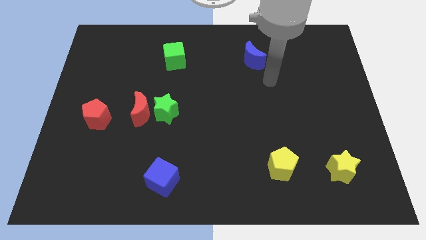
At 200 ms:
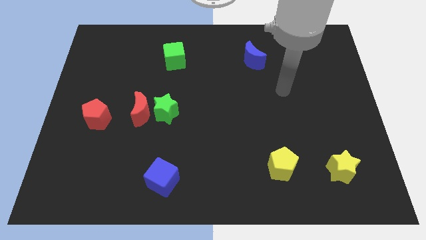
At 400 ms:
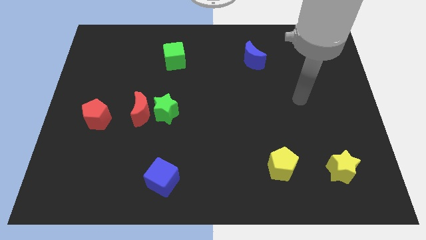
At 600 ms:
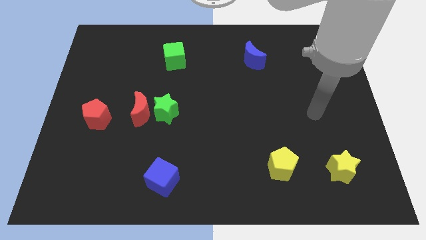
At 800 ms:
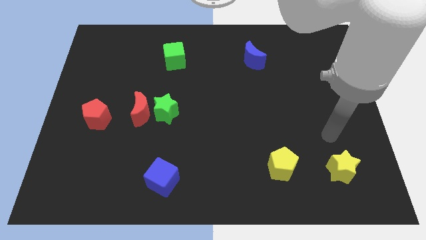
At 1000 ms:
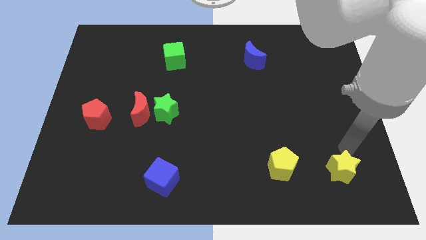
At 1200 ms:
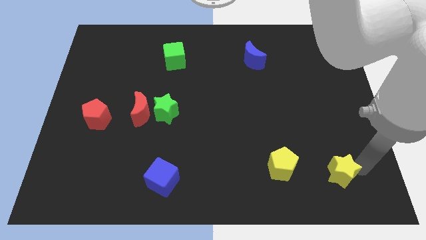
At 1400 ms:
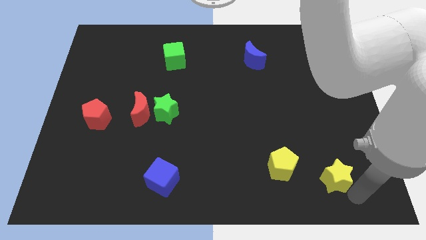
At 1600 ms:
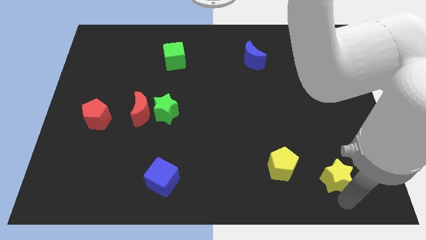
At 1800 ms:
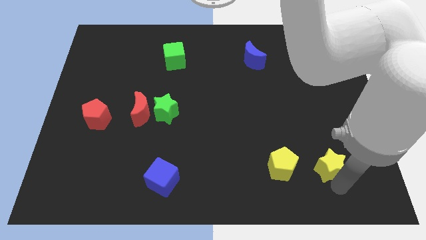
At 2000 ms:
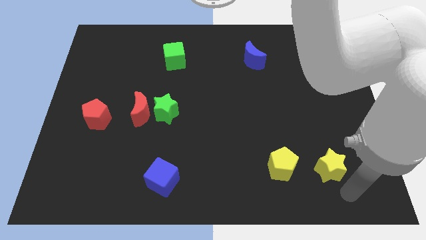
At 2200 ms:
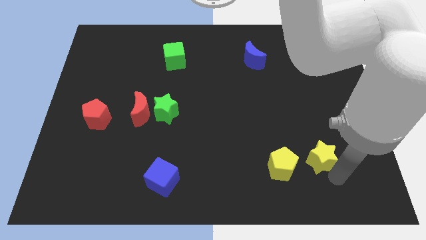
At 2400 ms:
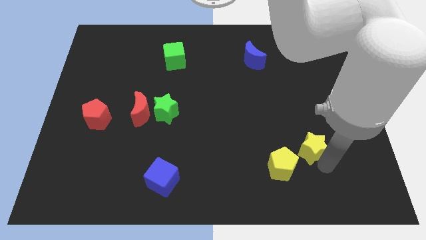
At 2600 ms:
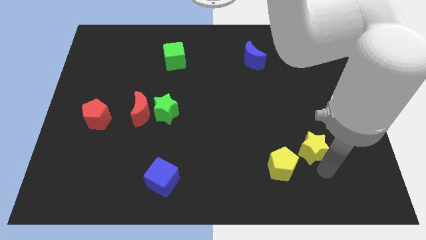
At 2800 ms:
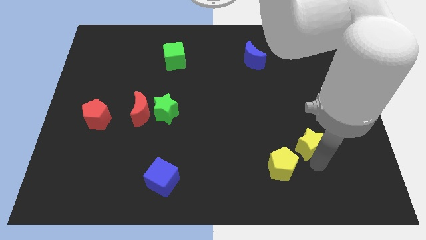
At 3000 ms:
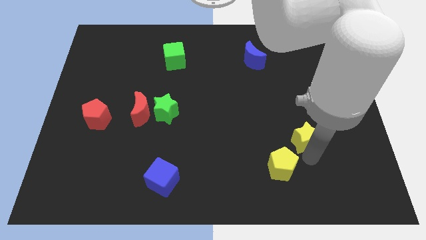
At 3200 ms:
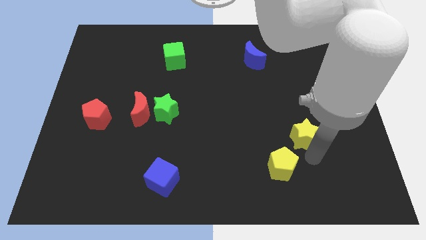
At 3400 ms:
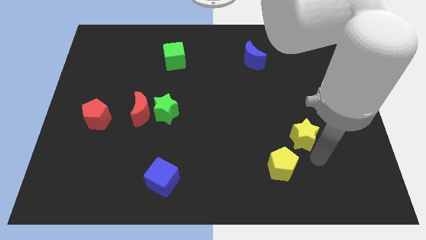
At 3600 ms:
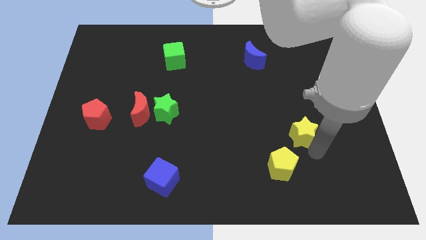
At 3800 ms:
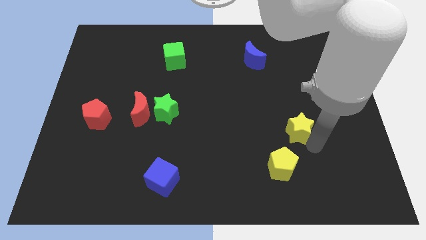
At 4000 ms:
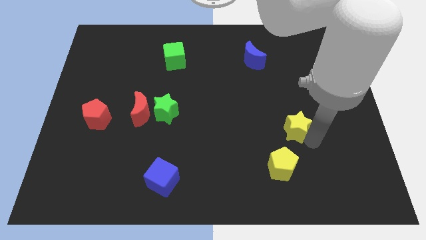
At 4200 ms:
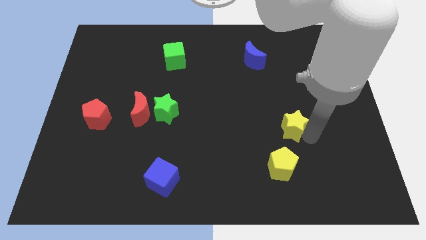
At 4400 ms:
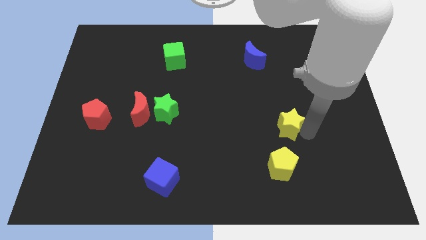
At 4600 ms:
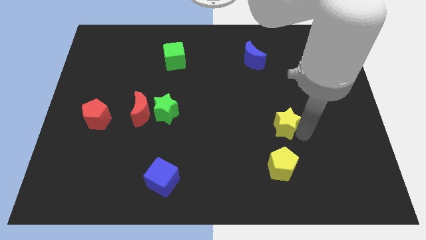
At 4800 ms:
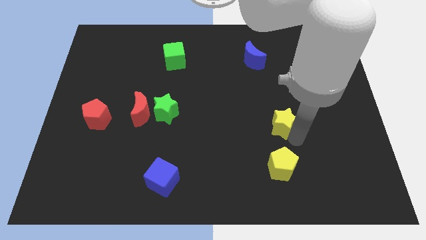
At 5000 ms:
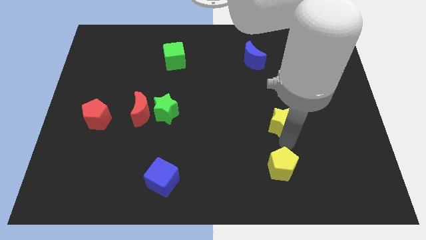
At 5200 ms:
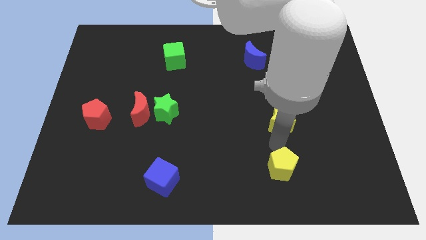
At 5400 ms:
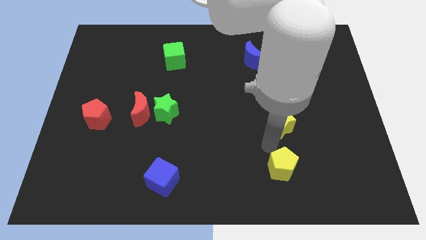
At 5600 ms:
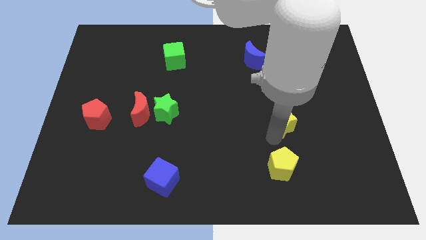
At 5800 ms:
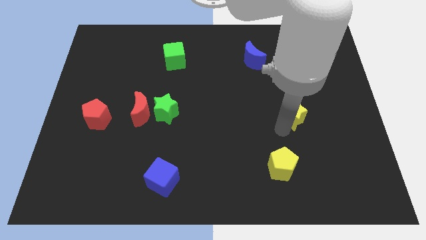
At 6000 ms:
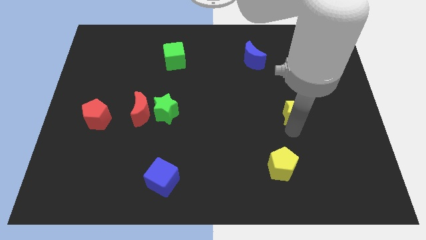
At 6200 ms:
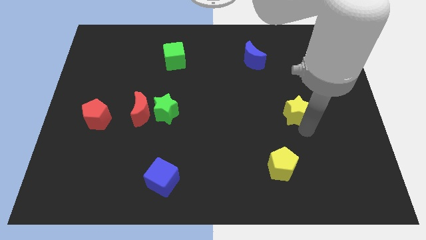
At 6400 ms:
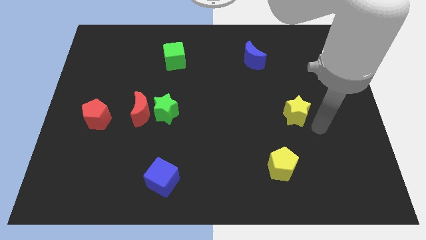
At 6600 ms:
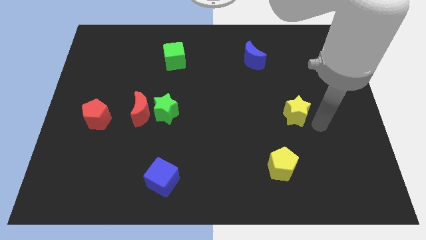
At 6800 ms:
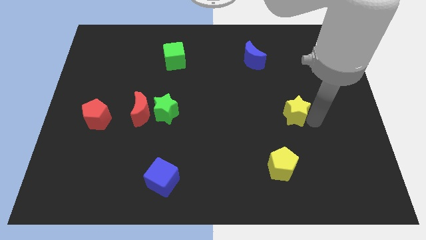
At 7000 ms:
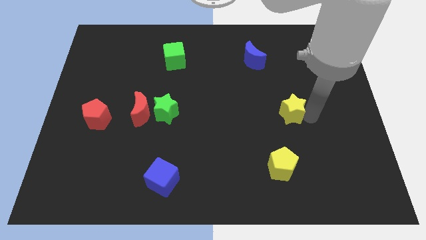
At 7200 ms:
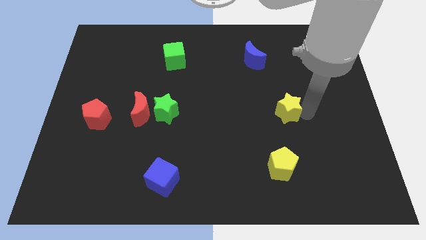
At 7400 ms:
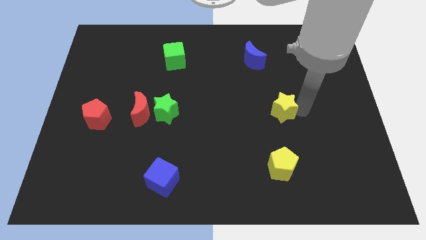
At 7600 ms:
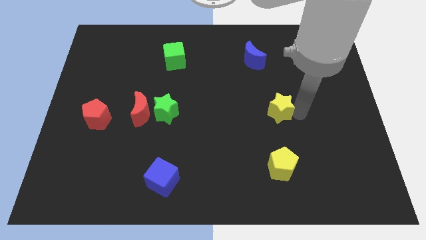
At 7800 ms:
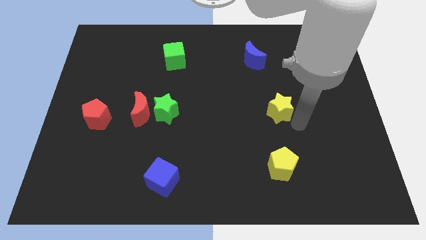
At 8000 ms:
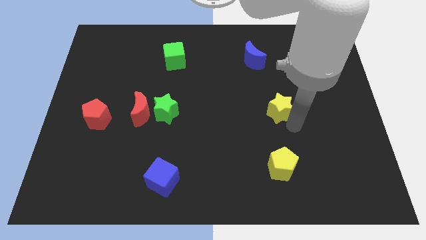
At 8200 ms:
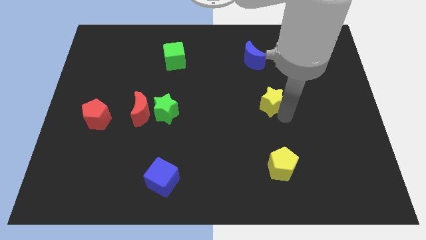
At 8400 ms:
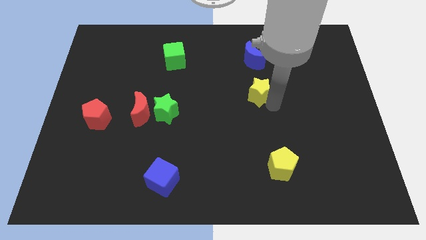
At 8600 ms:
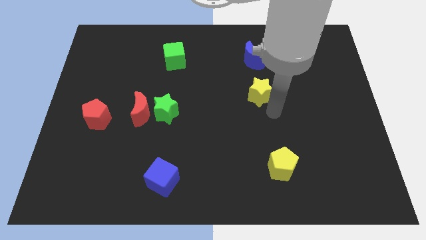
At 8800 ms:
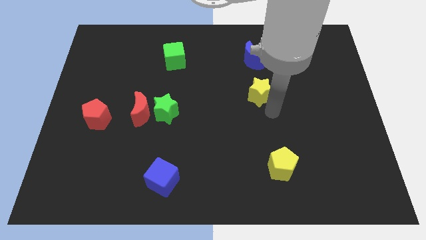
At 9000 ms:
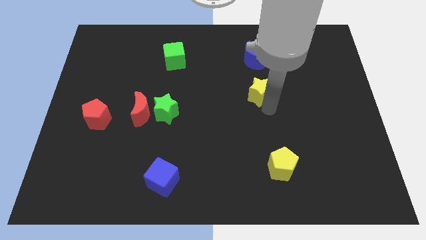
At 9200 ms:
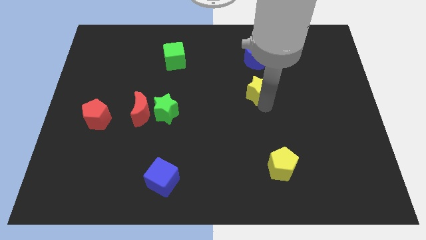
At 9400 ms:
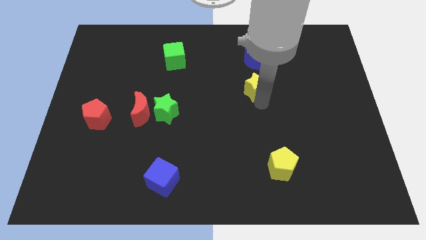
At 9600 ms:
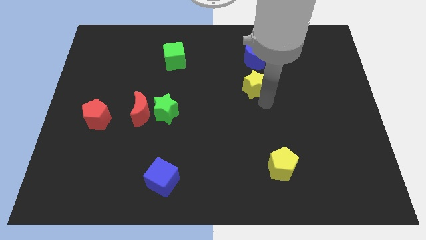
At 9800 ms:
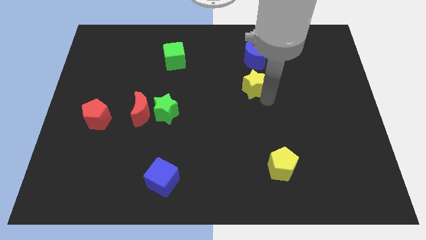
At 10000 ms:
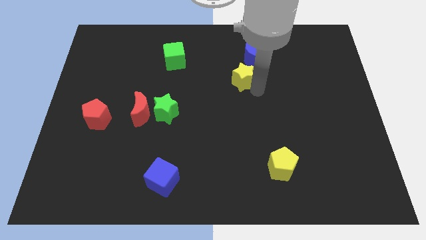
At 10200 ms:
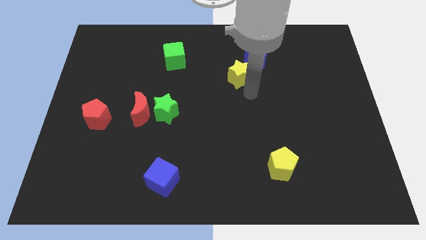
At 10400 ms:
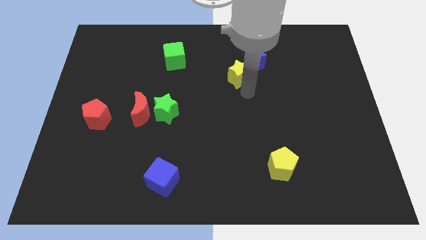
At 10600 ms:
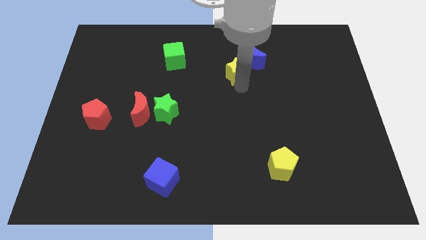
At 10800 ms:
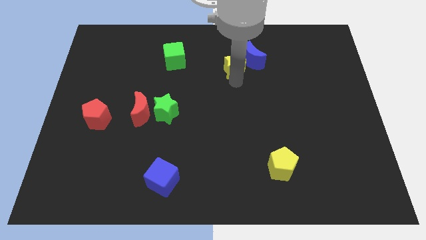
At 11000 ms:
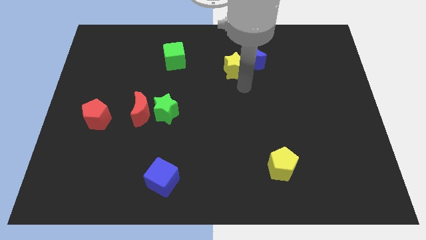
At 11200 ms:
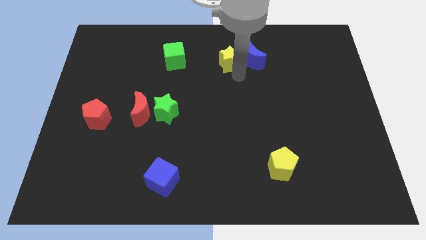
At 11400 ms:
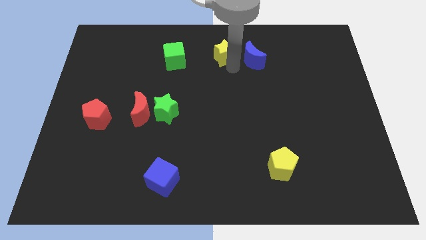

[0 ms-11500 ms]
put the yellow star to the towards your base

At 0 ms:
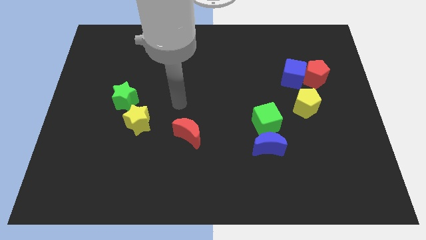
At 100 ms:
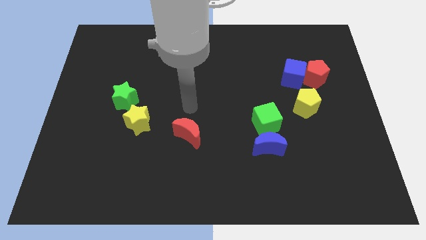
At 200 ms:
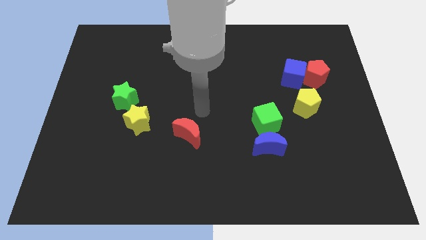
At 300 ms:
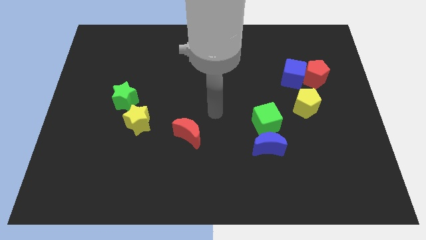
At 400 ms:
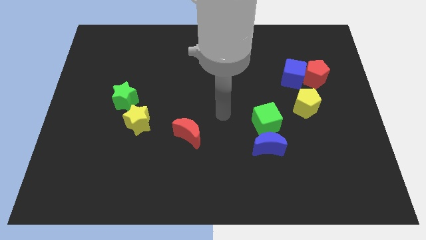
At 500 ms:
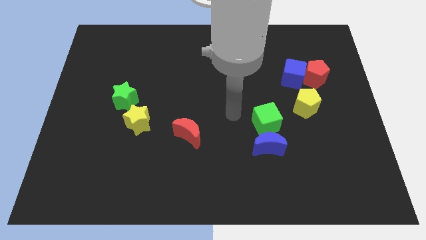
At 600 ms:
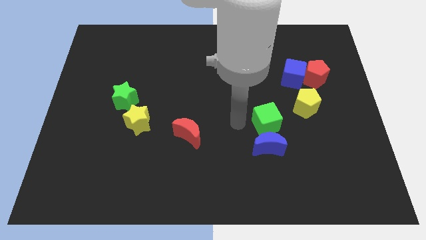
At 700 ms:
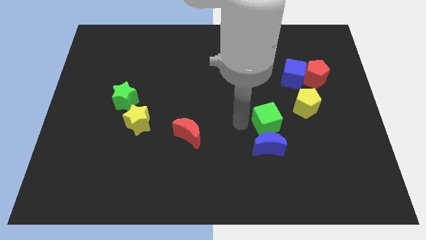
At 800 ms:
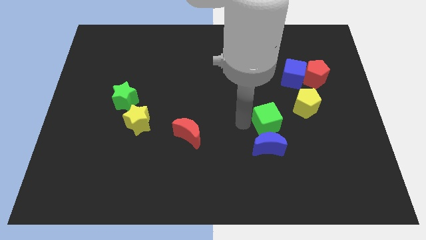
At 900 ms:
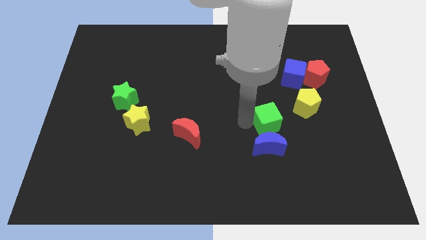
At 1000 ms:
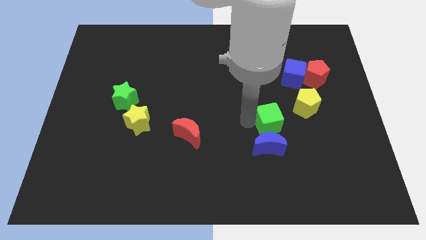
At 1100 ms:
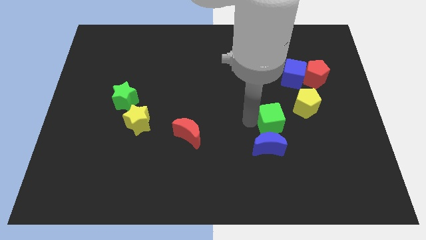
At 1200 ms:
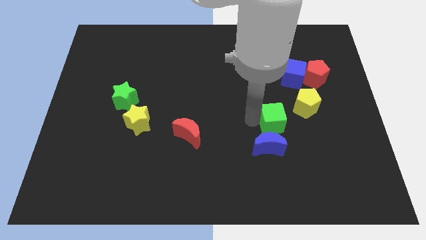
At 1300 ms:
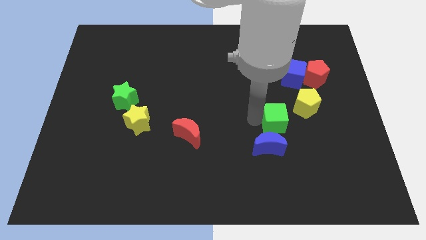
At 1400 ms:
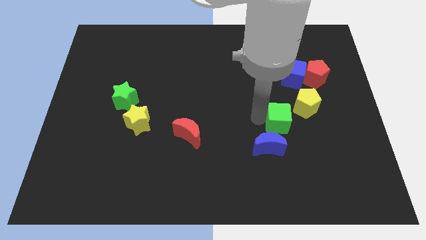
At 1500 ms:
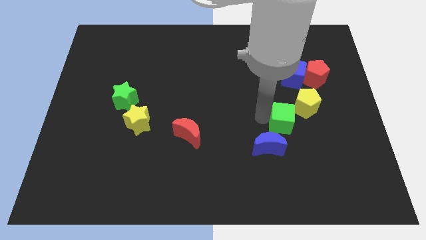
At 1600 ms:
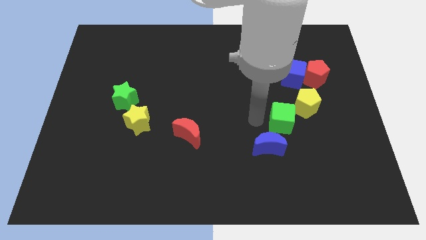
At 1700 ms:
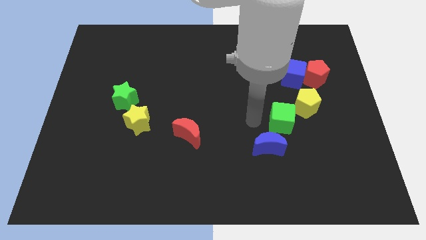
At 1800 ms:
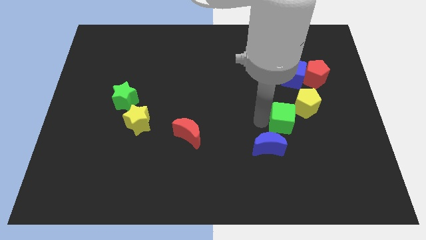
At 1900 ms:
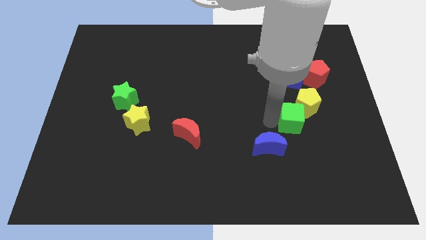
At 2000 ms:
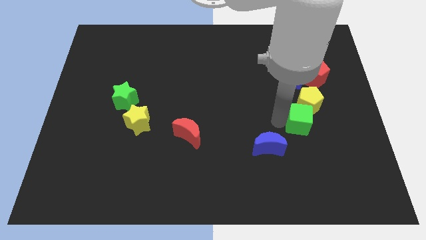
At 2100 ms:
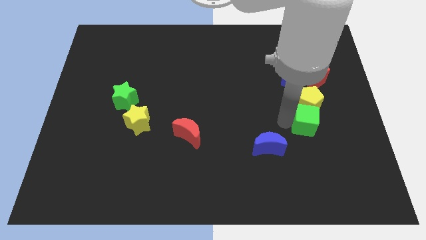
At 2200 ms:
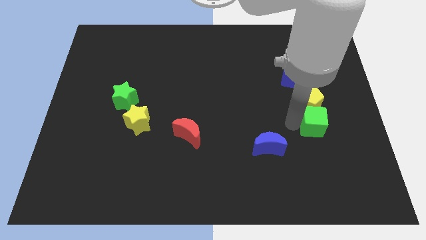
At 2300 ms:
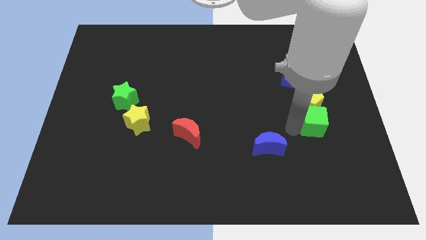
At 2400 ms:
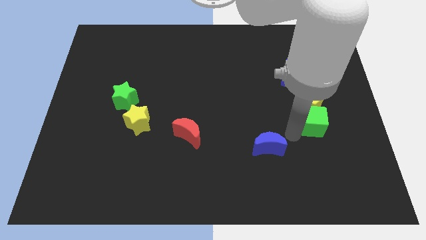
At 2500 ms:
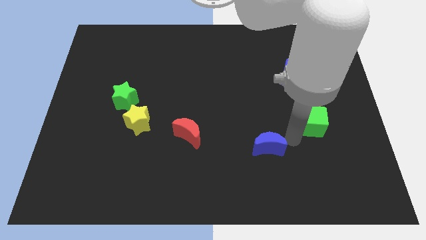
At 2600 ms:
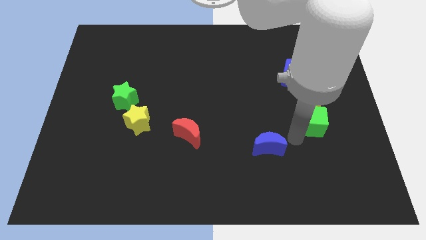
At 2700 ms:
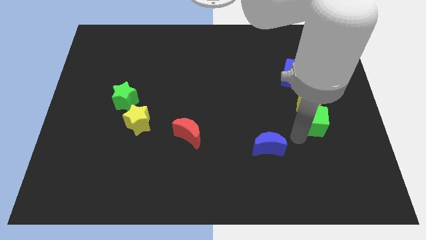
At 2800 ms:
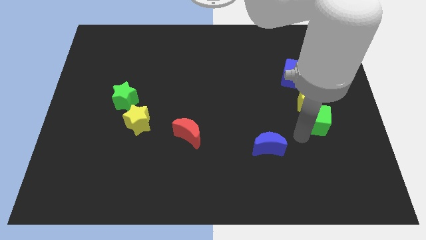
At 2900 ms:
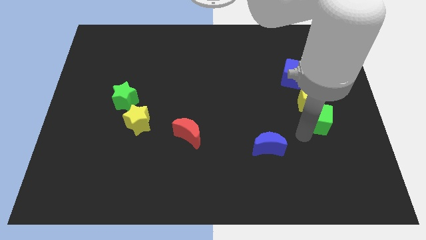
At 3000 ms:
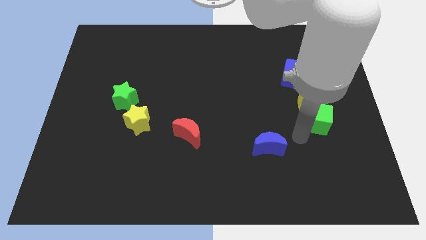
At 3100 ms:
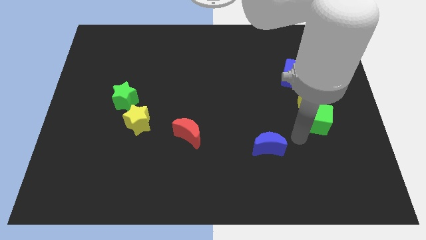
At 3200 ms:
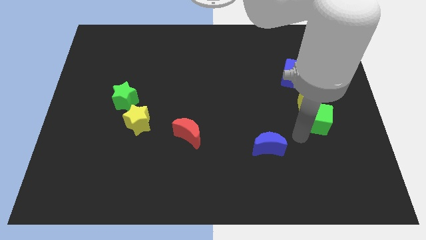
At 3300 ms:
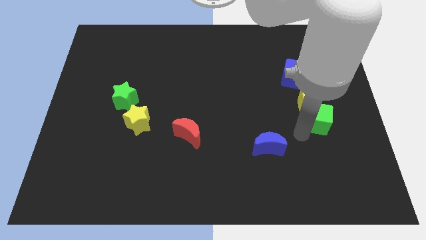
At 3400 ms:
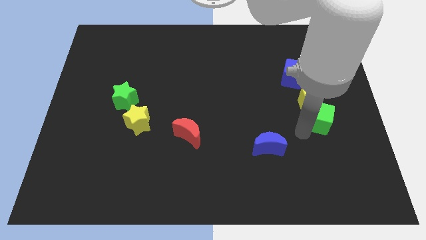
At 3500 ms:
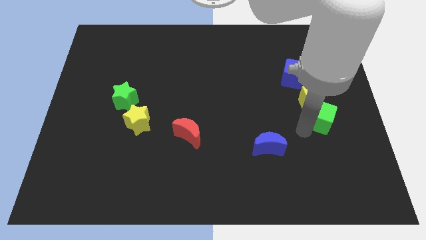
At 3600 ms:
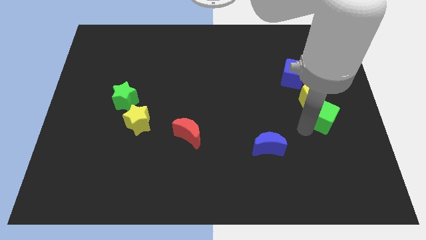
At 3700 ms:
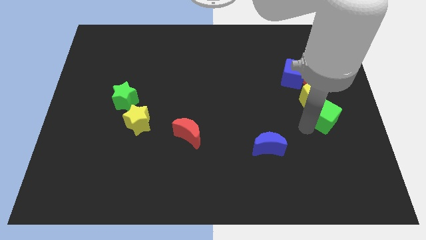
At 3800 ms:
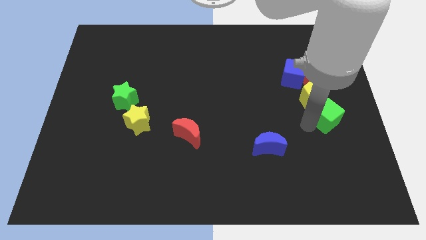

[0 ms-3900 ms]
slide the green cube to the center right
